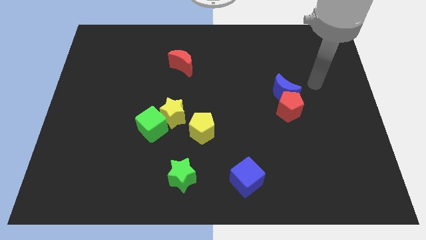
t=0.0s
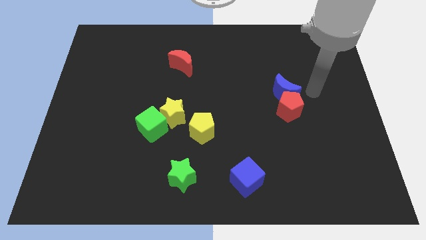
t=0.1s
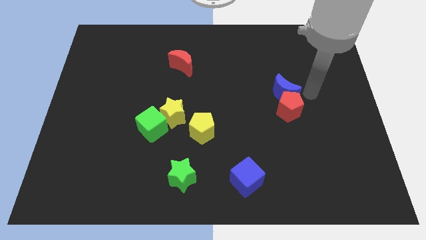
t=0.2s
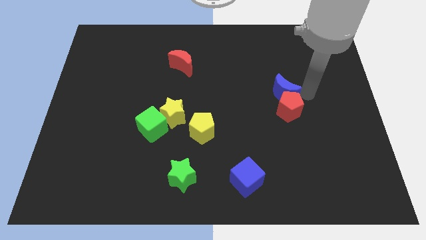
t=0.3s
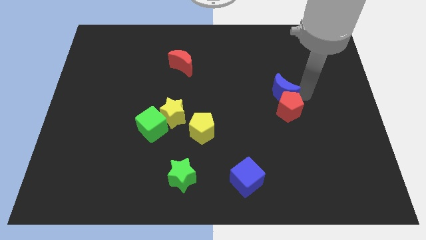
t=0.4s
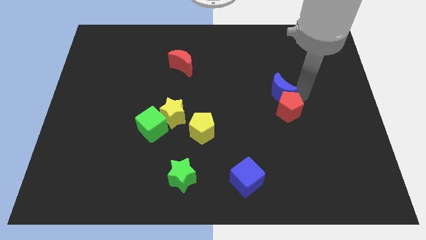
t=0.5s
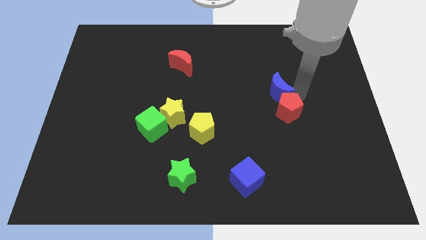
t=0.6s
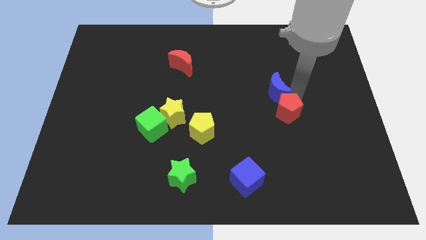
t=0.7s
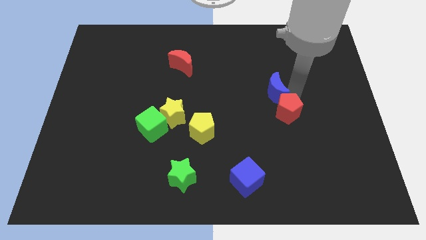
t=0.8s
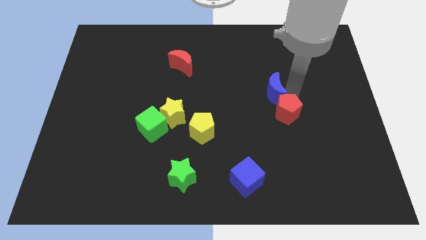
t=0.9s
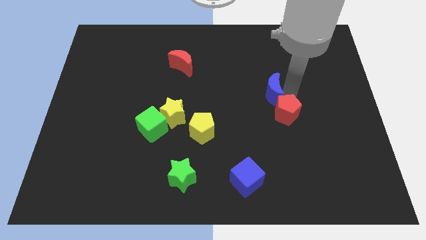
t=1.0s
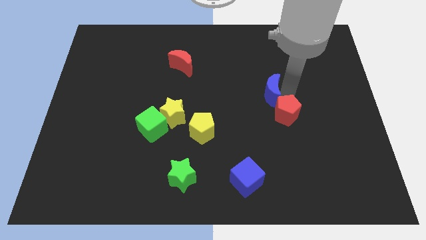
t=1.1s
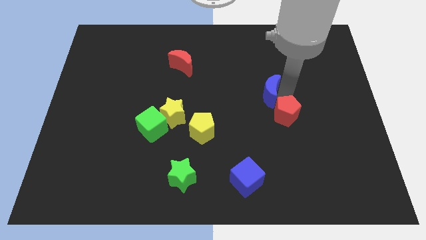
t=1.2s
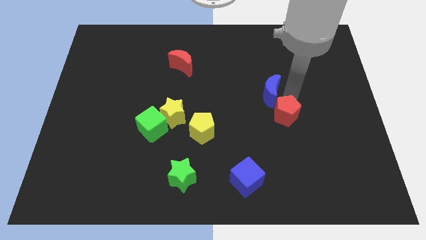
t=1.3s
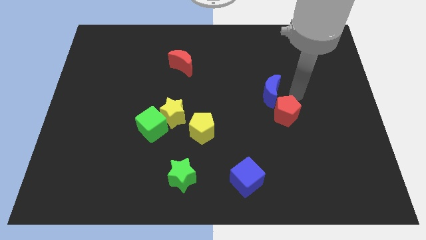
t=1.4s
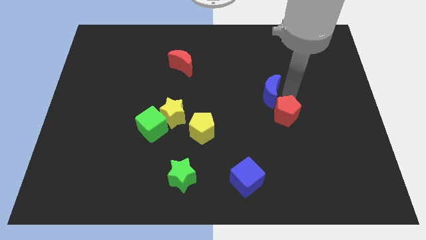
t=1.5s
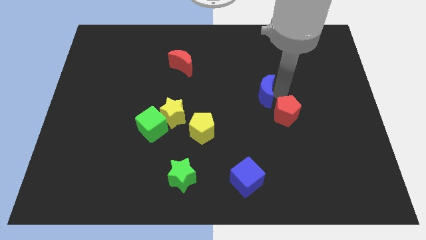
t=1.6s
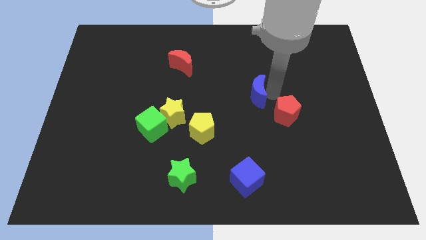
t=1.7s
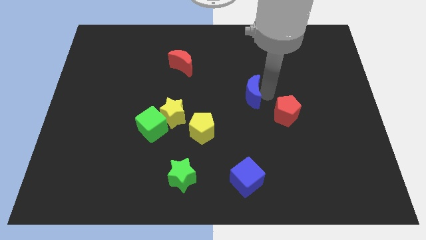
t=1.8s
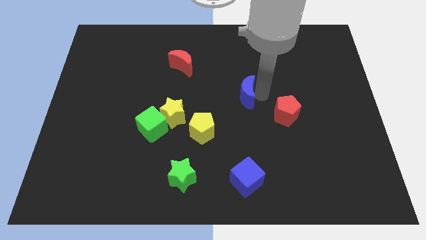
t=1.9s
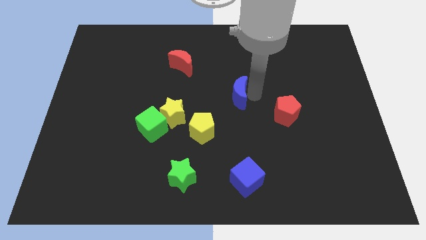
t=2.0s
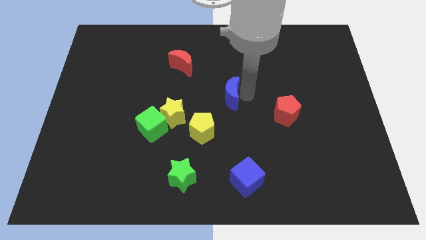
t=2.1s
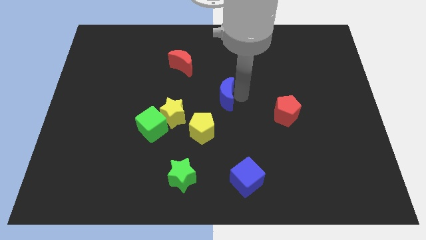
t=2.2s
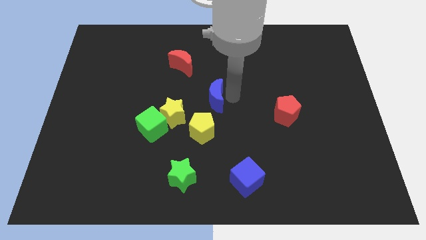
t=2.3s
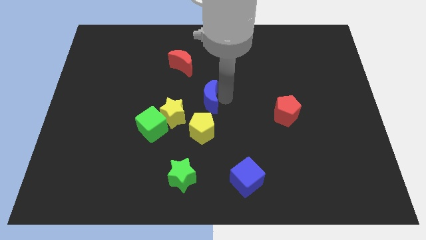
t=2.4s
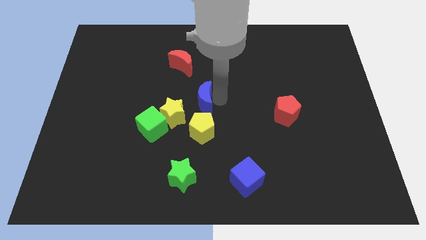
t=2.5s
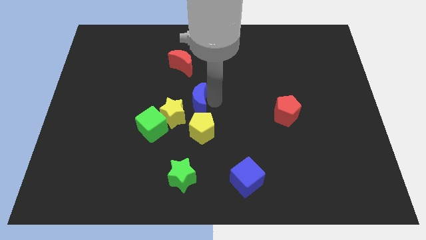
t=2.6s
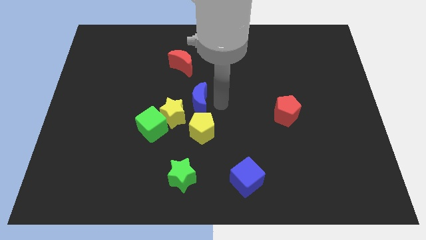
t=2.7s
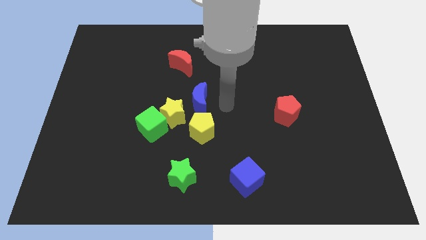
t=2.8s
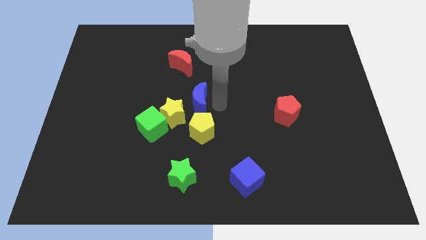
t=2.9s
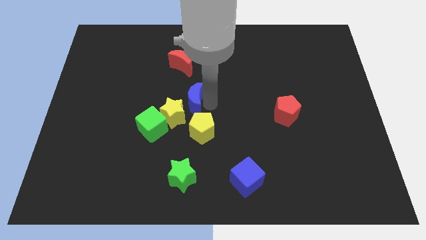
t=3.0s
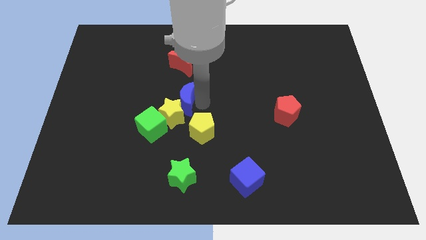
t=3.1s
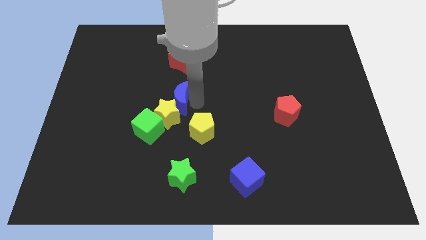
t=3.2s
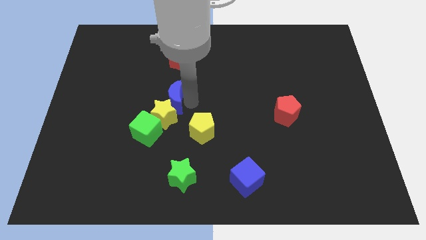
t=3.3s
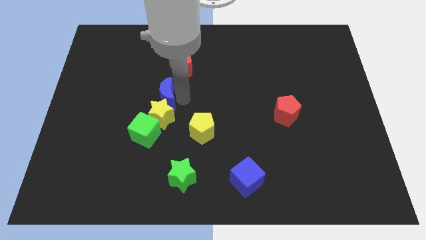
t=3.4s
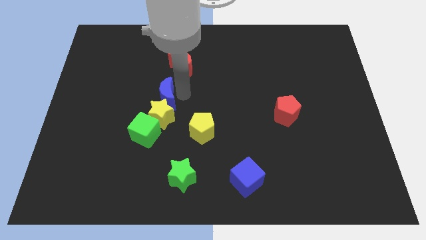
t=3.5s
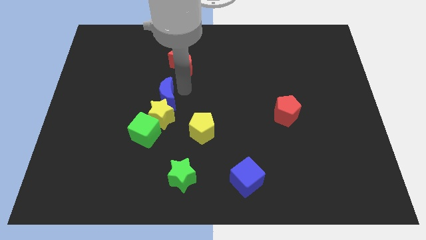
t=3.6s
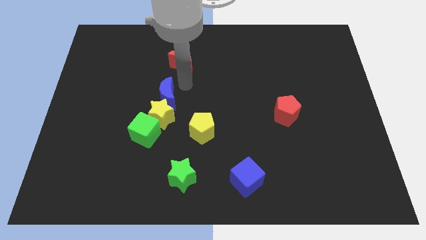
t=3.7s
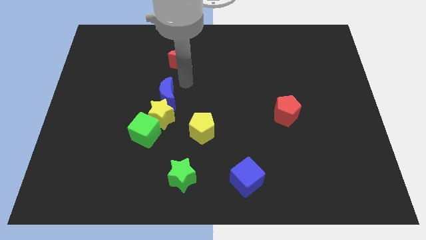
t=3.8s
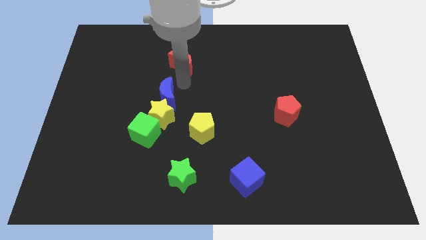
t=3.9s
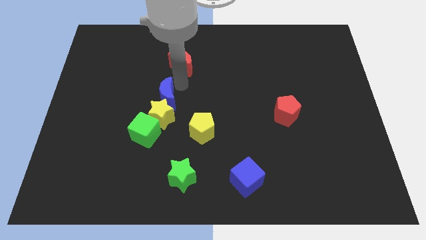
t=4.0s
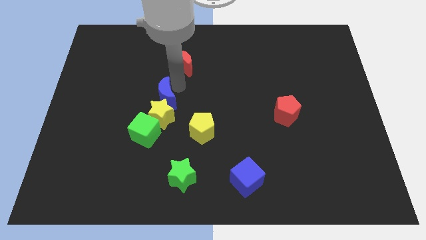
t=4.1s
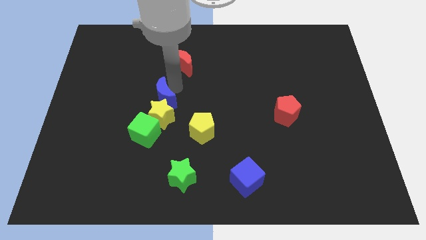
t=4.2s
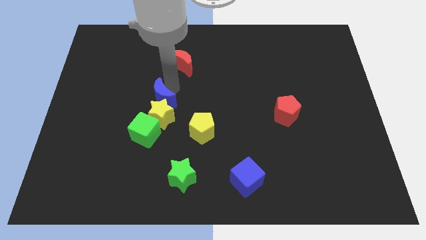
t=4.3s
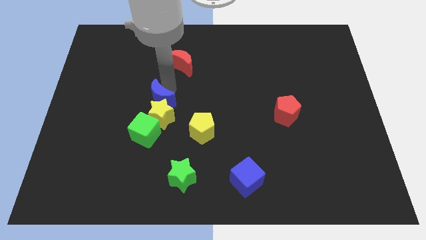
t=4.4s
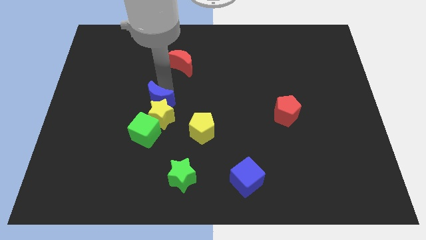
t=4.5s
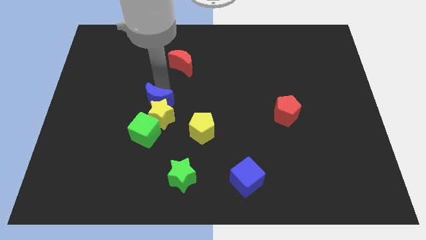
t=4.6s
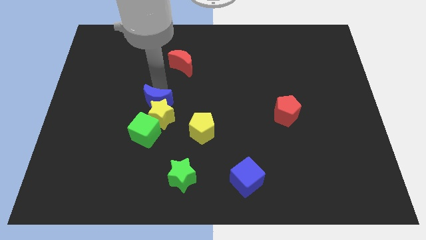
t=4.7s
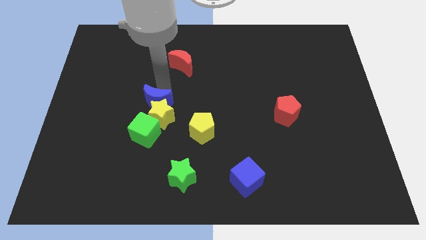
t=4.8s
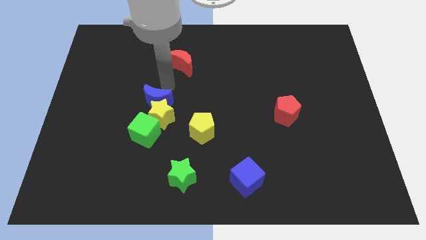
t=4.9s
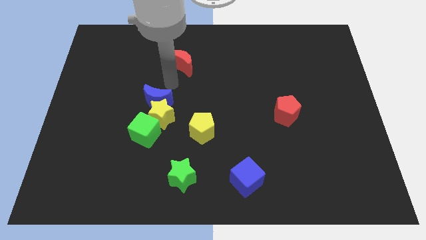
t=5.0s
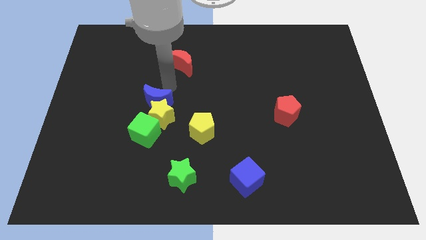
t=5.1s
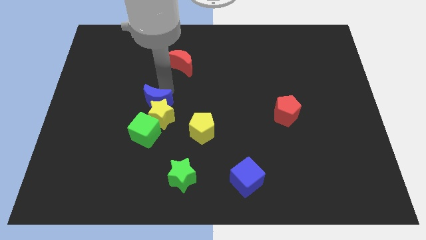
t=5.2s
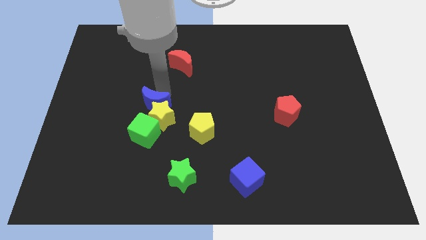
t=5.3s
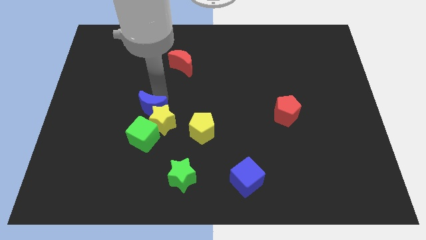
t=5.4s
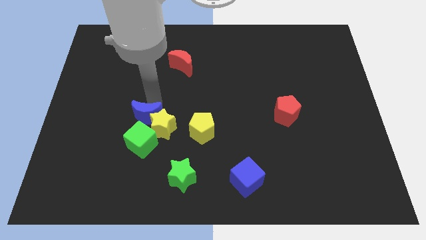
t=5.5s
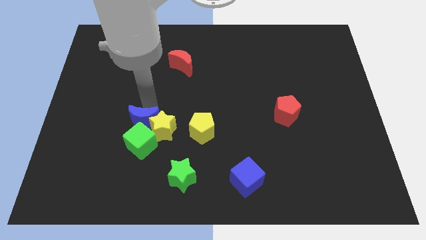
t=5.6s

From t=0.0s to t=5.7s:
slide the blue moon towards the green cube

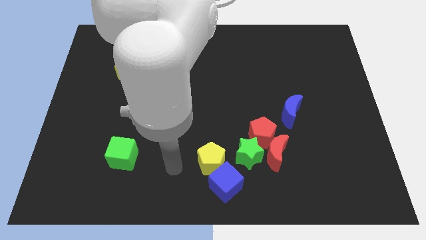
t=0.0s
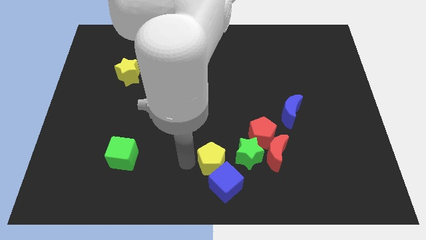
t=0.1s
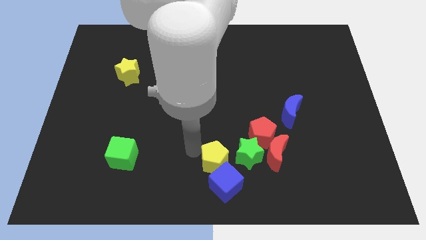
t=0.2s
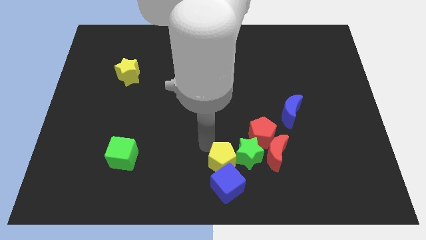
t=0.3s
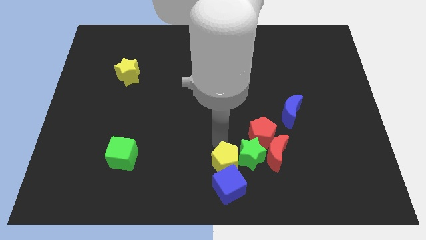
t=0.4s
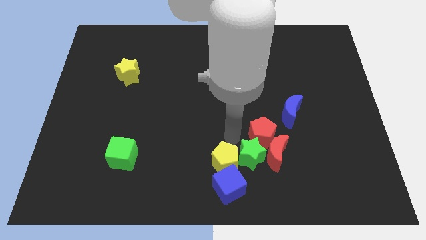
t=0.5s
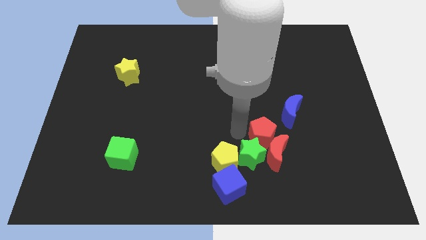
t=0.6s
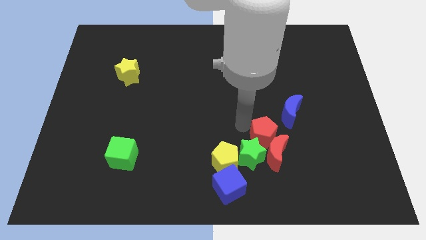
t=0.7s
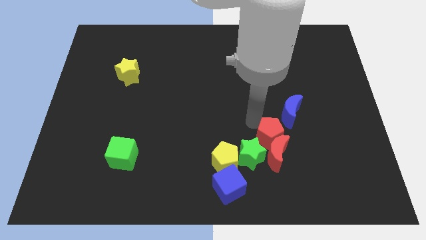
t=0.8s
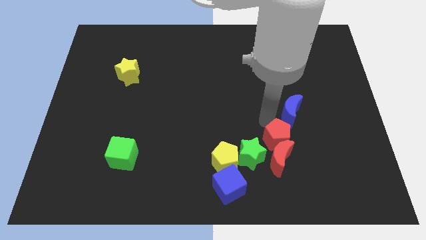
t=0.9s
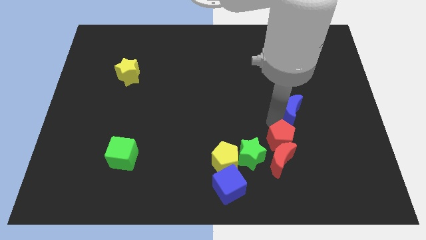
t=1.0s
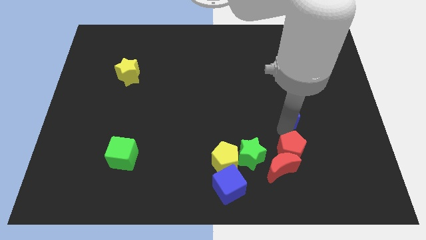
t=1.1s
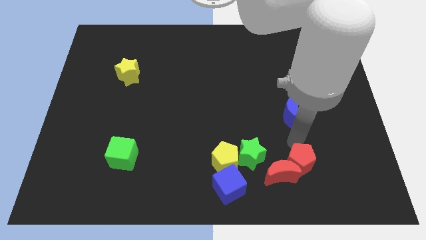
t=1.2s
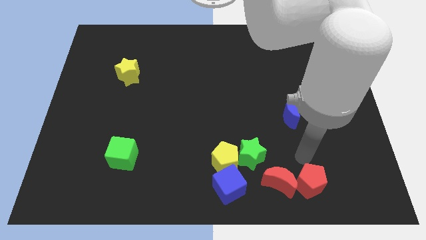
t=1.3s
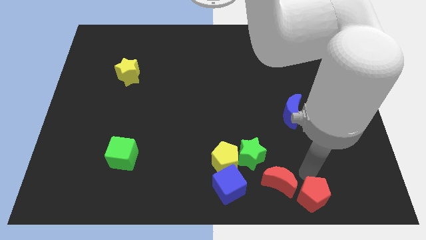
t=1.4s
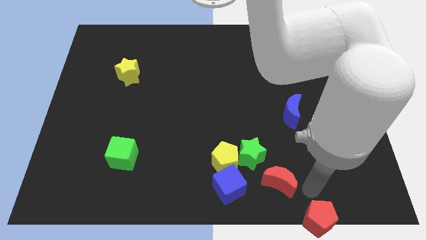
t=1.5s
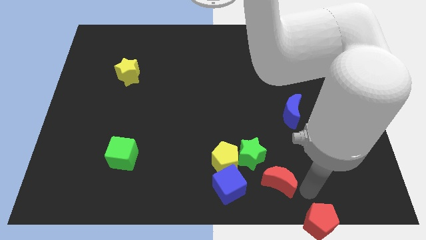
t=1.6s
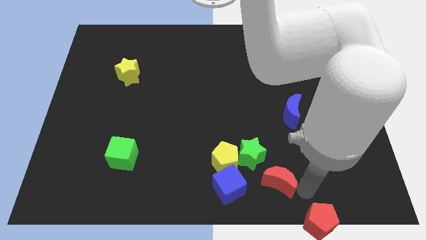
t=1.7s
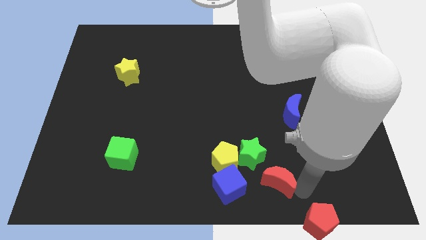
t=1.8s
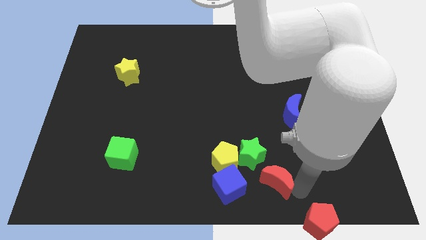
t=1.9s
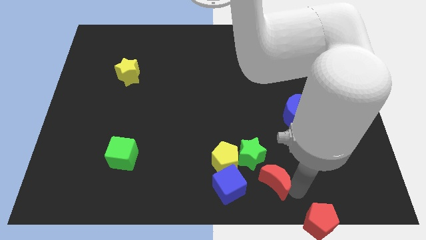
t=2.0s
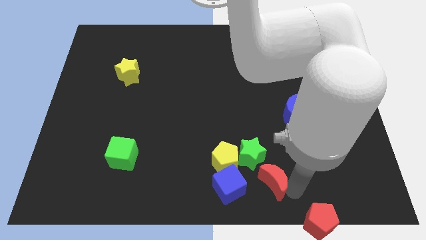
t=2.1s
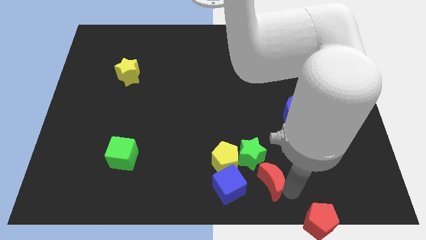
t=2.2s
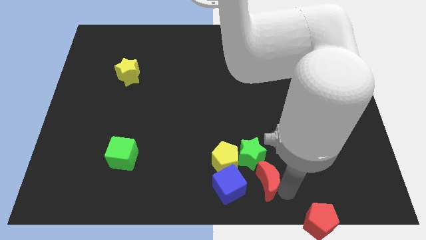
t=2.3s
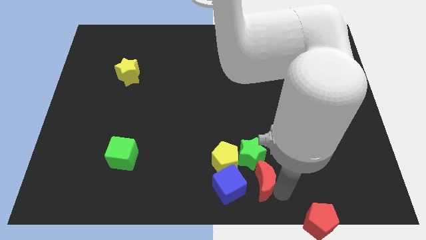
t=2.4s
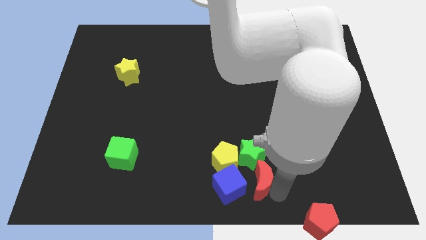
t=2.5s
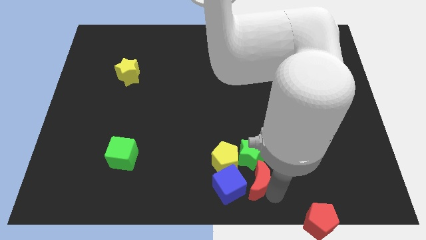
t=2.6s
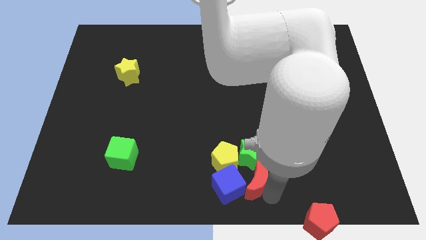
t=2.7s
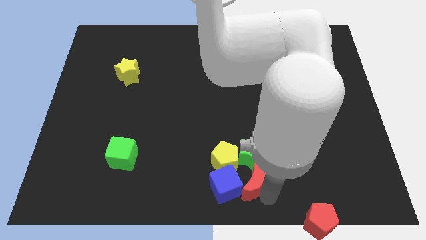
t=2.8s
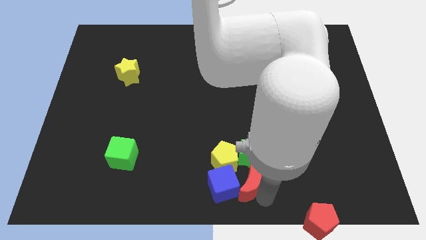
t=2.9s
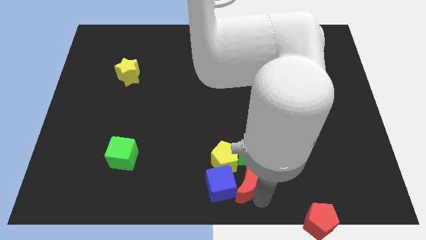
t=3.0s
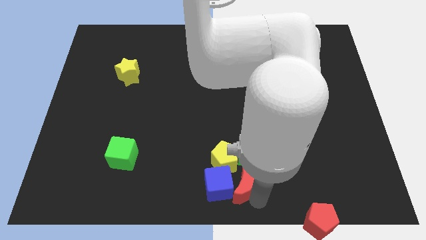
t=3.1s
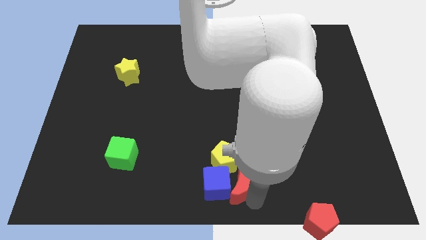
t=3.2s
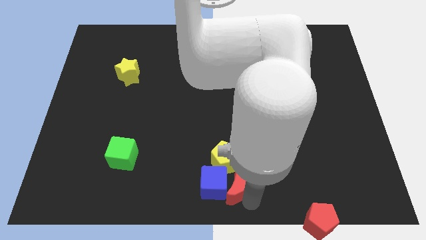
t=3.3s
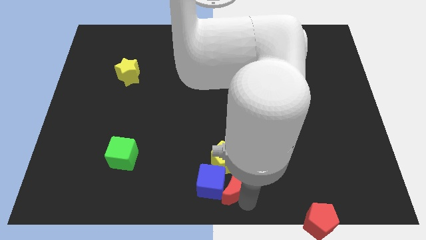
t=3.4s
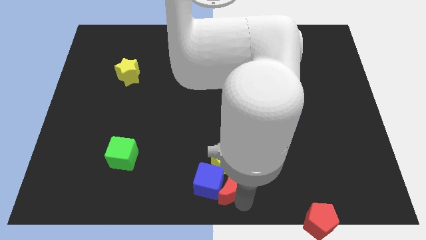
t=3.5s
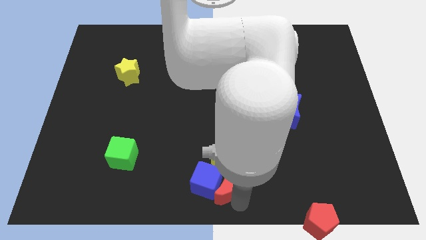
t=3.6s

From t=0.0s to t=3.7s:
push the red moon next to the yellow pentagon
